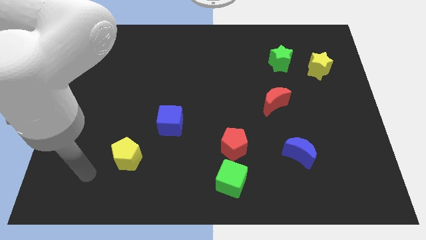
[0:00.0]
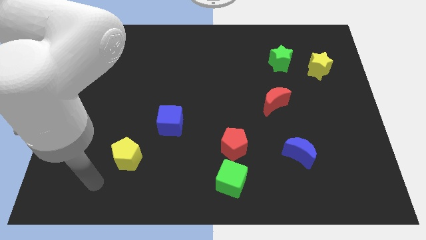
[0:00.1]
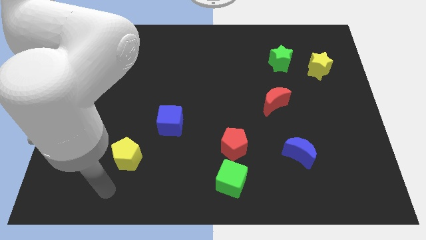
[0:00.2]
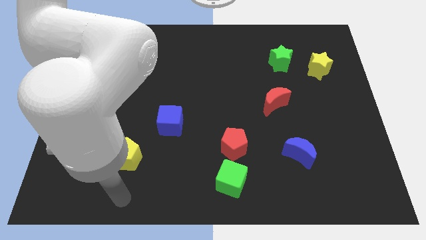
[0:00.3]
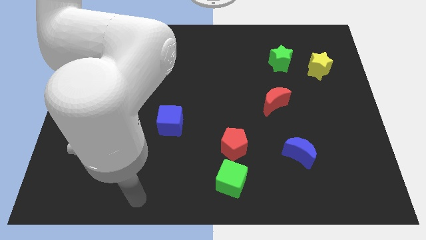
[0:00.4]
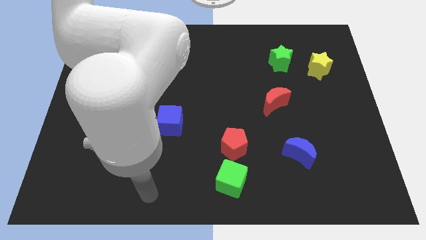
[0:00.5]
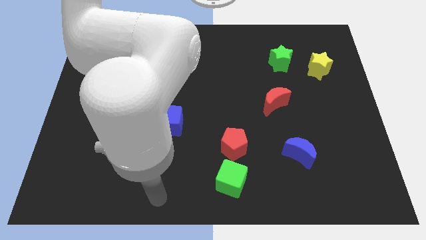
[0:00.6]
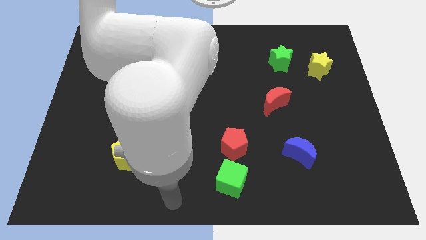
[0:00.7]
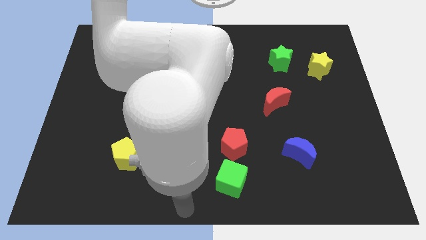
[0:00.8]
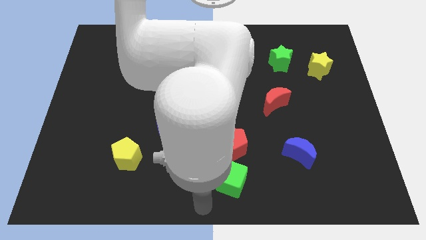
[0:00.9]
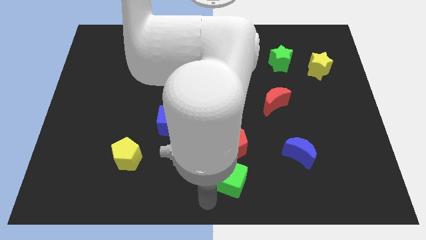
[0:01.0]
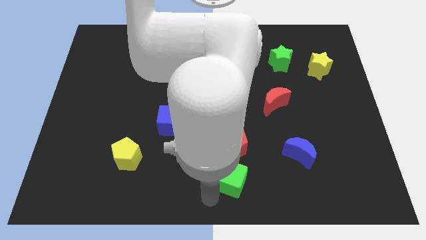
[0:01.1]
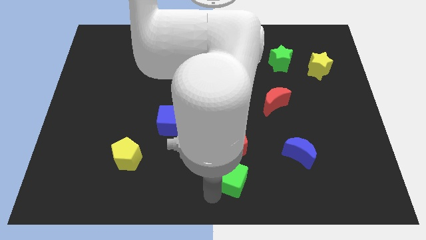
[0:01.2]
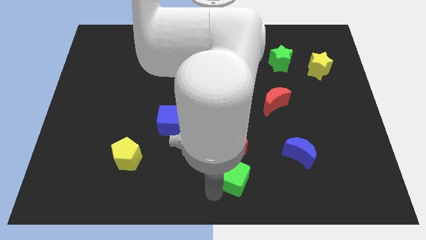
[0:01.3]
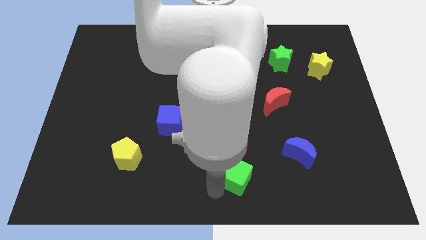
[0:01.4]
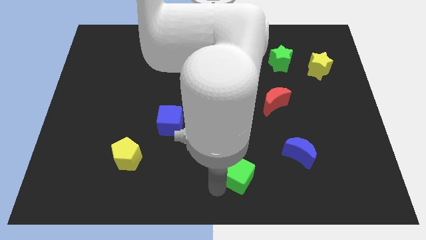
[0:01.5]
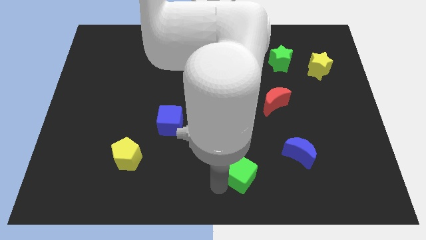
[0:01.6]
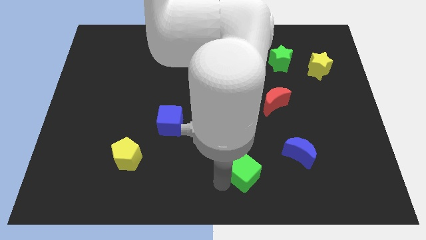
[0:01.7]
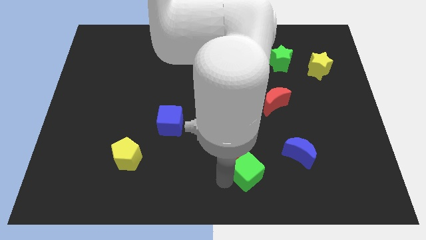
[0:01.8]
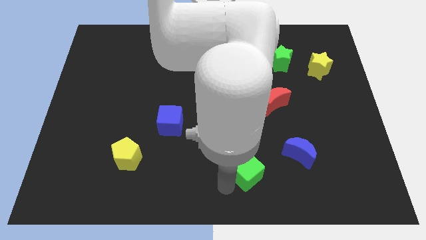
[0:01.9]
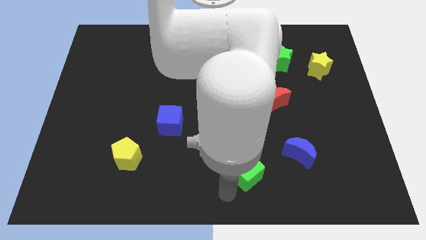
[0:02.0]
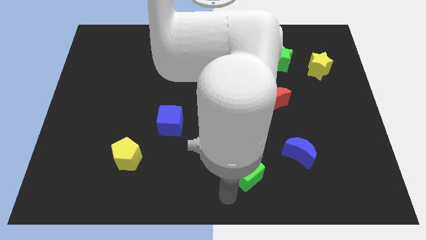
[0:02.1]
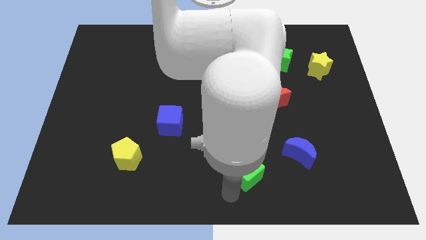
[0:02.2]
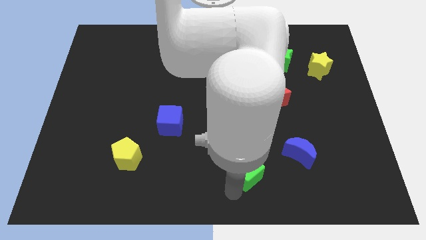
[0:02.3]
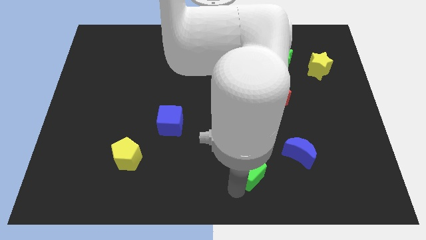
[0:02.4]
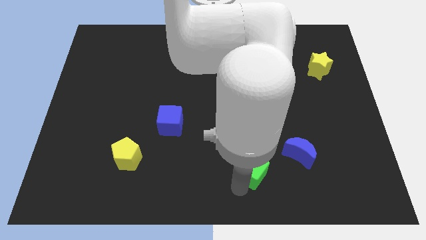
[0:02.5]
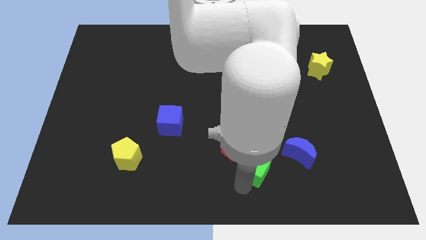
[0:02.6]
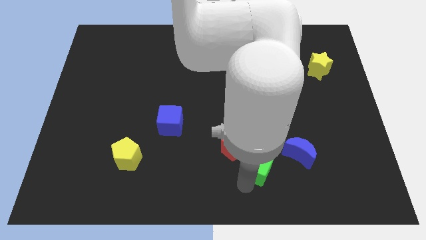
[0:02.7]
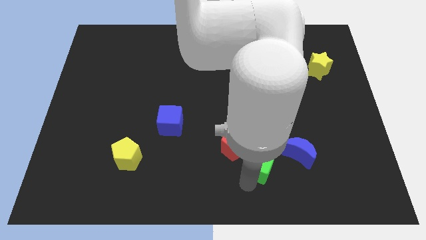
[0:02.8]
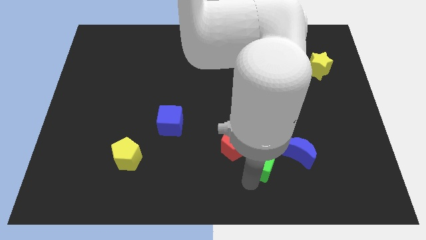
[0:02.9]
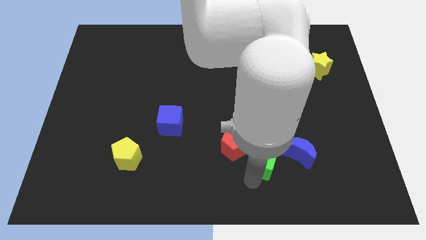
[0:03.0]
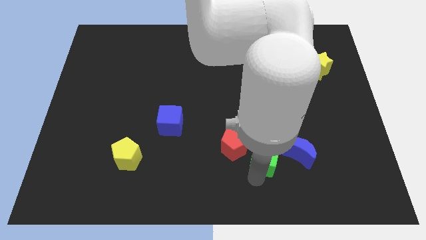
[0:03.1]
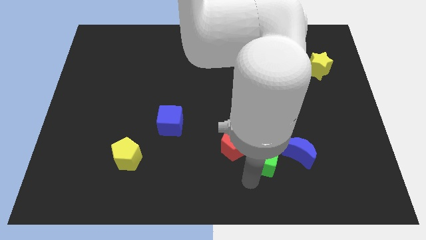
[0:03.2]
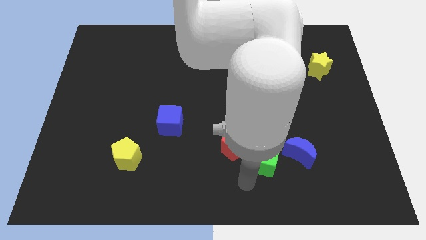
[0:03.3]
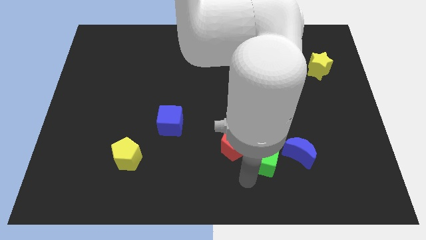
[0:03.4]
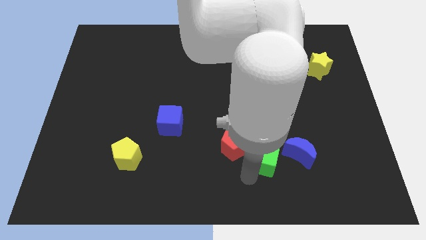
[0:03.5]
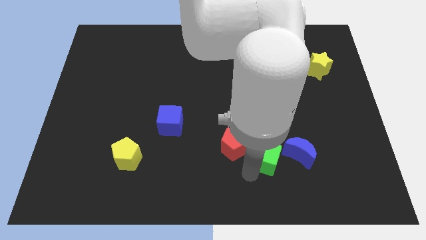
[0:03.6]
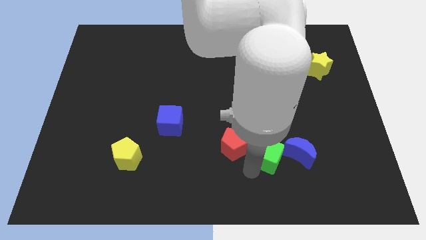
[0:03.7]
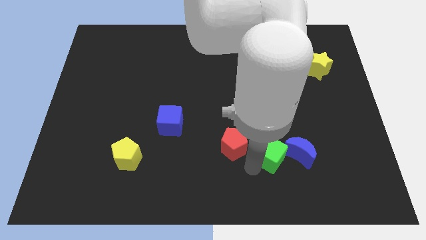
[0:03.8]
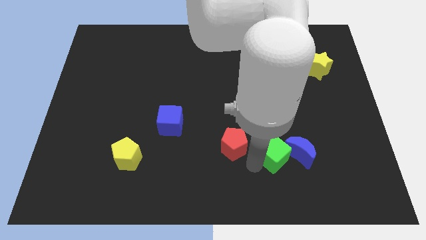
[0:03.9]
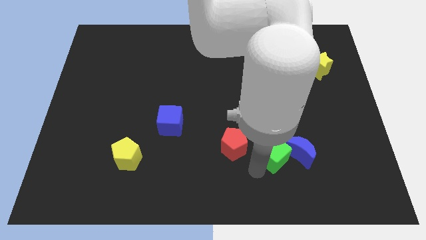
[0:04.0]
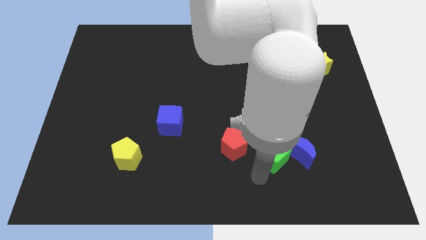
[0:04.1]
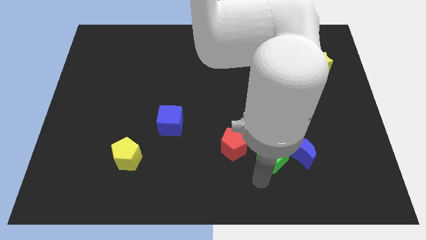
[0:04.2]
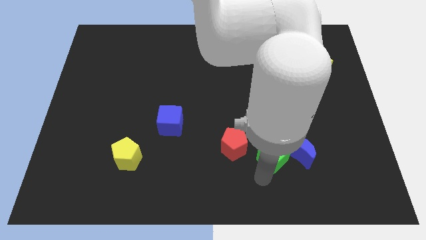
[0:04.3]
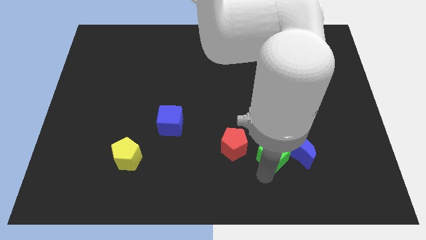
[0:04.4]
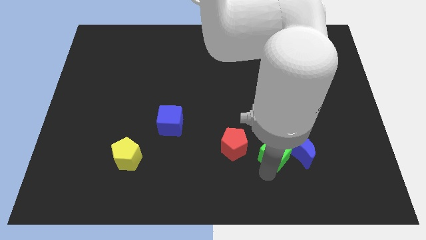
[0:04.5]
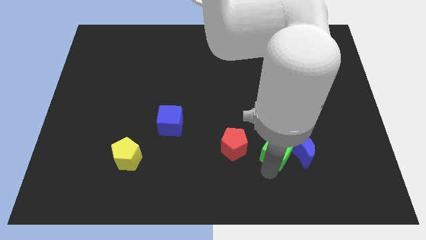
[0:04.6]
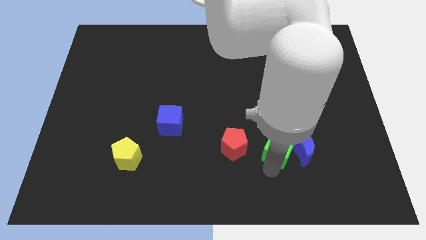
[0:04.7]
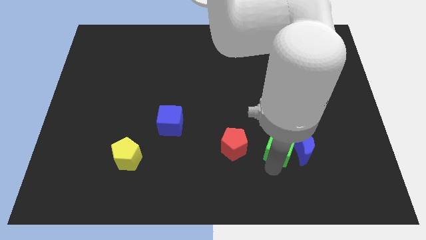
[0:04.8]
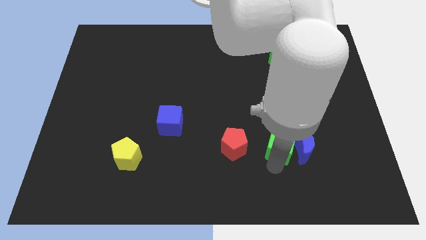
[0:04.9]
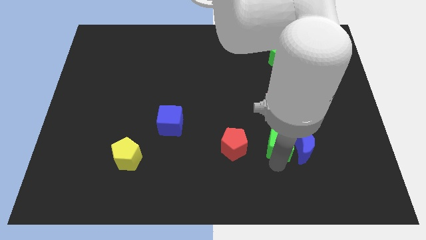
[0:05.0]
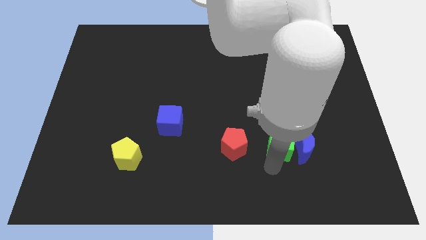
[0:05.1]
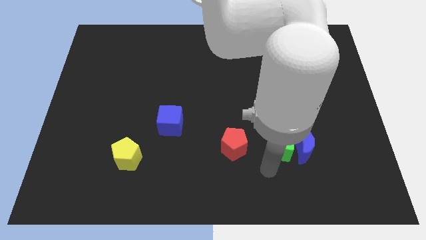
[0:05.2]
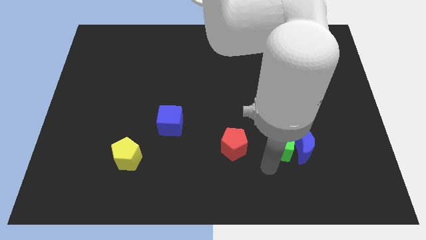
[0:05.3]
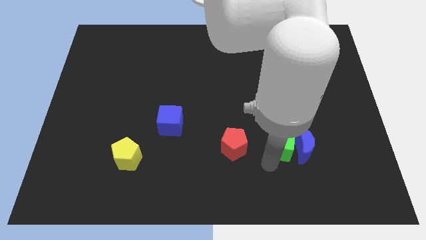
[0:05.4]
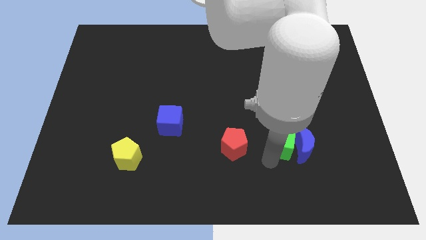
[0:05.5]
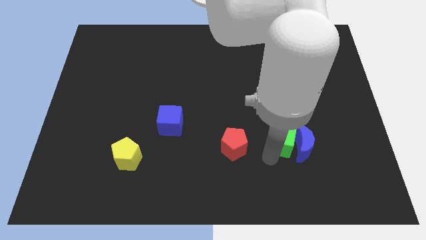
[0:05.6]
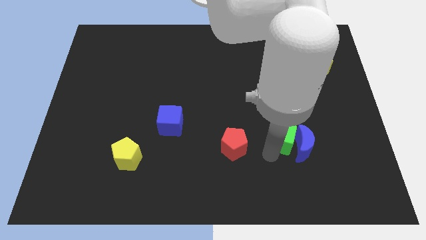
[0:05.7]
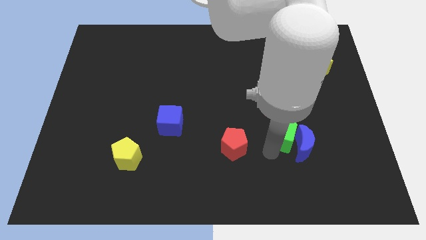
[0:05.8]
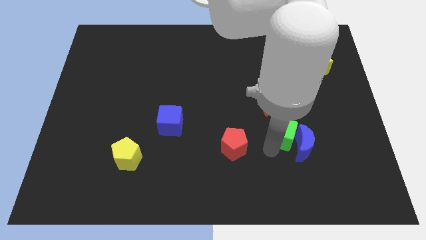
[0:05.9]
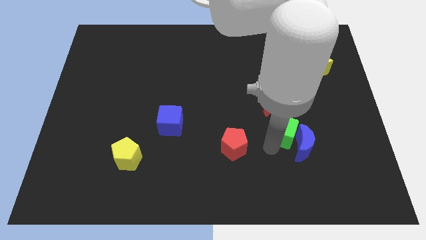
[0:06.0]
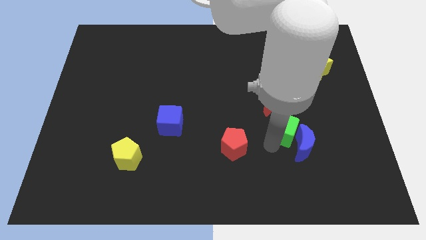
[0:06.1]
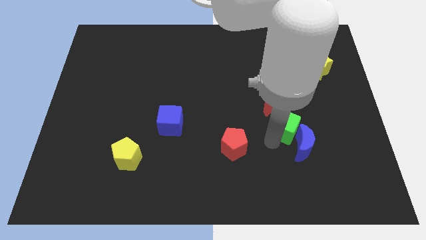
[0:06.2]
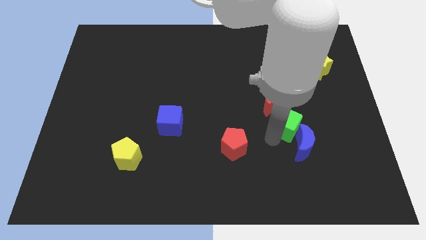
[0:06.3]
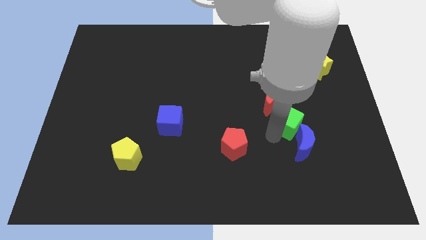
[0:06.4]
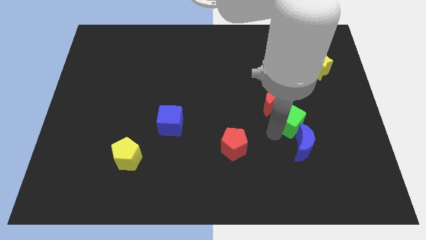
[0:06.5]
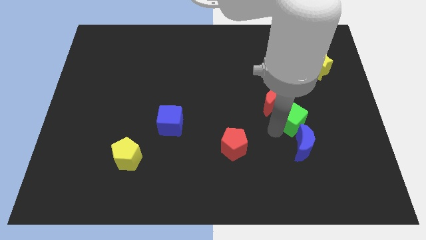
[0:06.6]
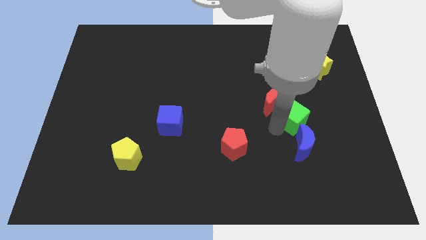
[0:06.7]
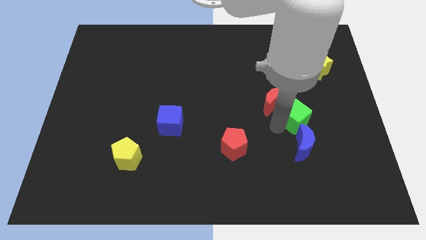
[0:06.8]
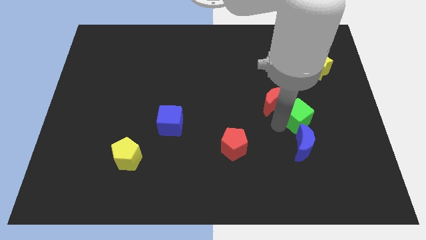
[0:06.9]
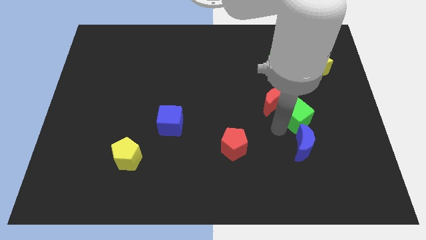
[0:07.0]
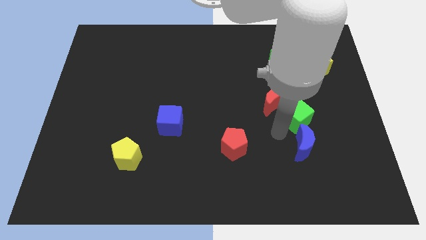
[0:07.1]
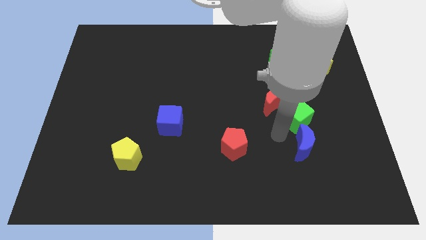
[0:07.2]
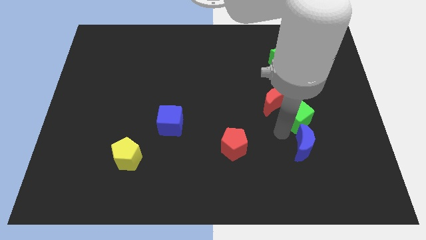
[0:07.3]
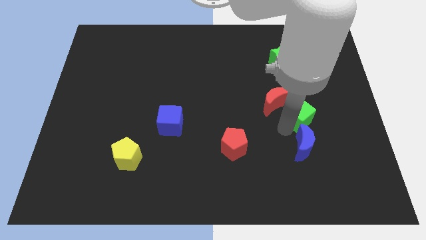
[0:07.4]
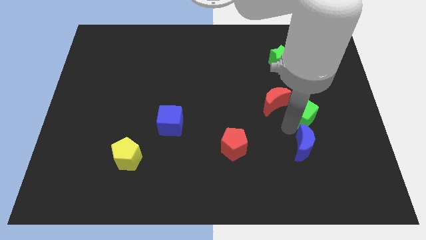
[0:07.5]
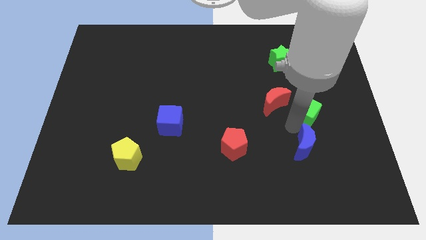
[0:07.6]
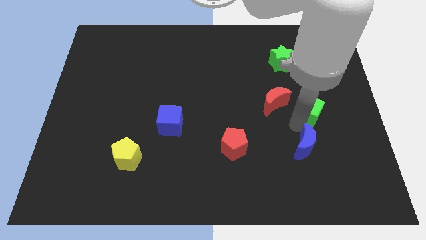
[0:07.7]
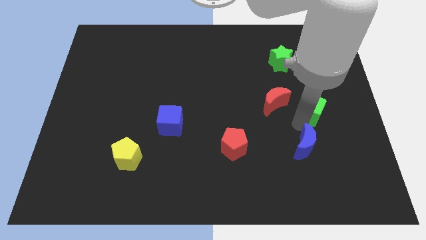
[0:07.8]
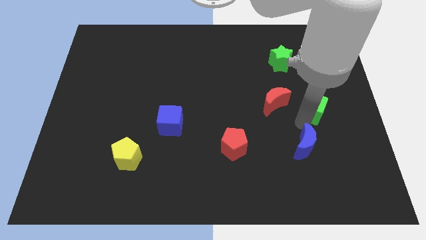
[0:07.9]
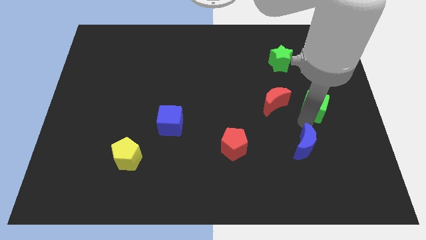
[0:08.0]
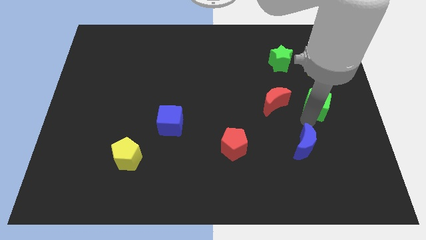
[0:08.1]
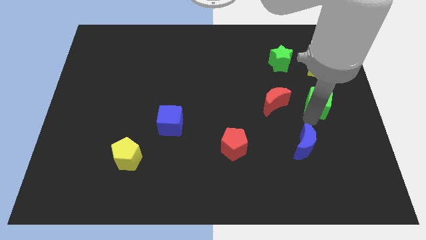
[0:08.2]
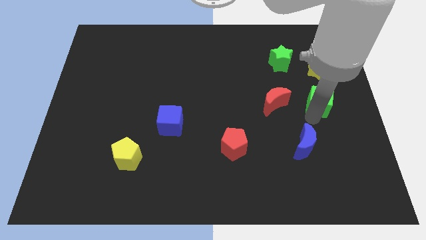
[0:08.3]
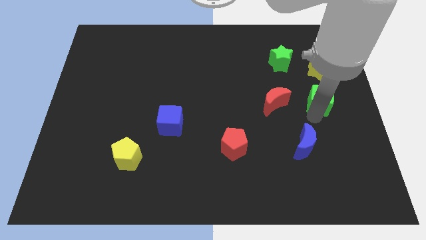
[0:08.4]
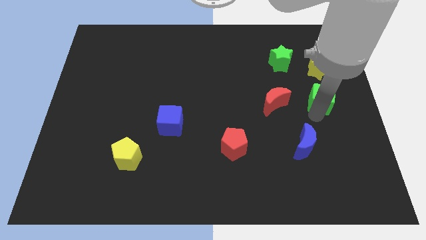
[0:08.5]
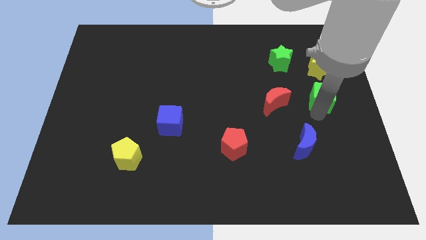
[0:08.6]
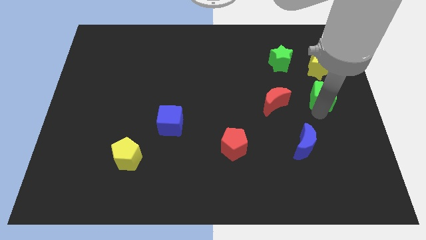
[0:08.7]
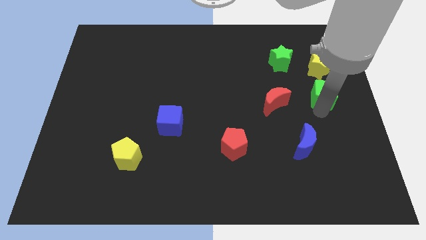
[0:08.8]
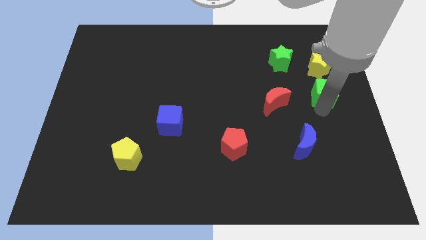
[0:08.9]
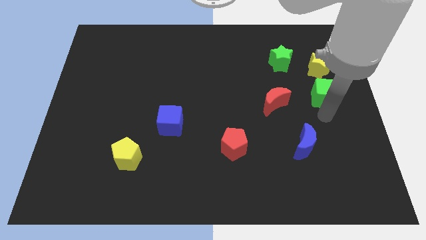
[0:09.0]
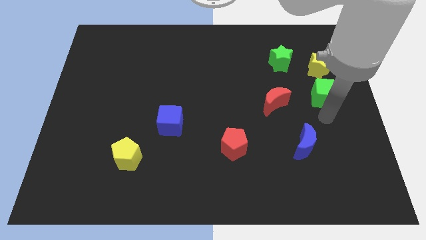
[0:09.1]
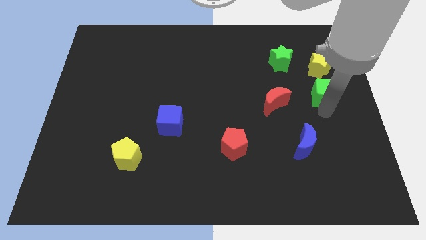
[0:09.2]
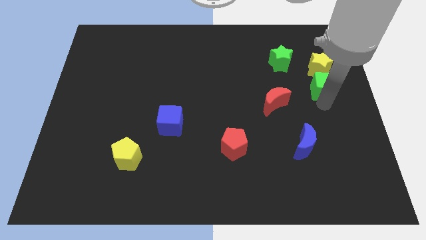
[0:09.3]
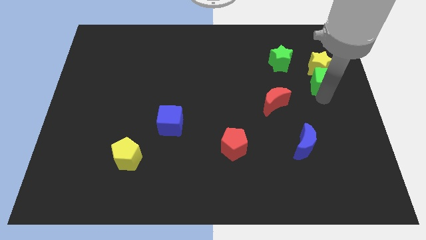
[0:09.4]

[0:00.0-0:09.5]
push the green cube towards the yellow star
